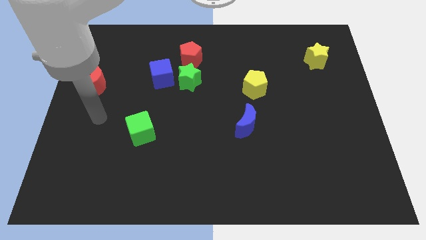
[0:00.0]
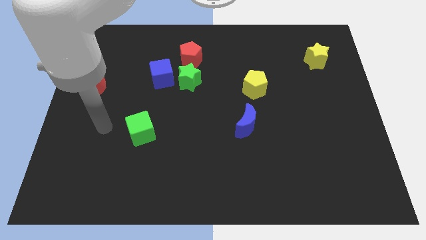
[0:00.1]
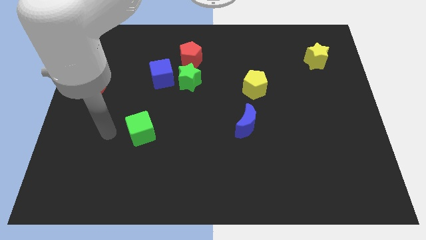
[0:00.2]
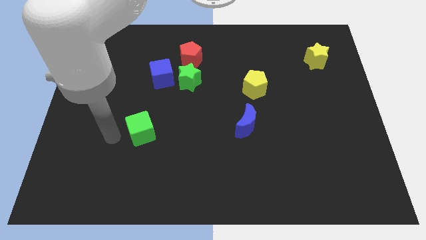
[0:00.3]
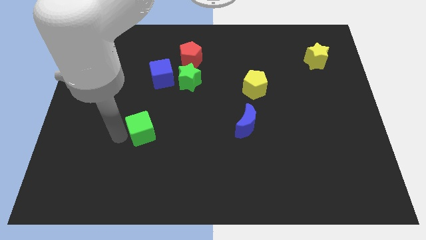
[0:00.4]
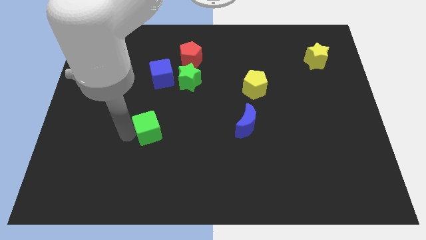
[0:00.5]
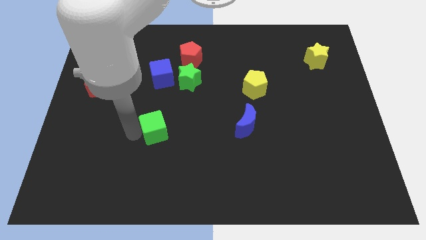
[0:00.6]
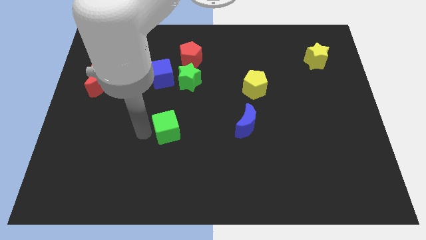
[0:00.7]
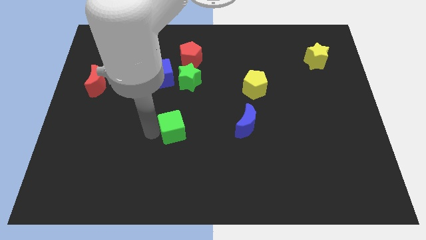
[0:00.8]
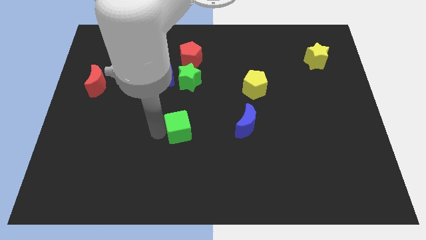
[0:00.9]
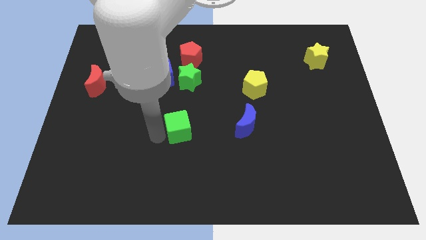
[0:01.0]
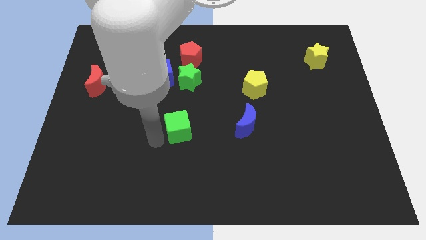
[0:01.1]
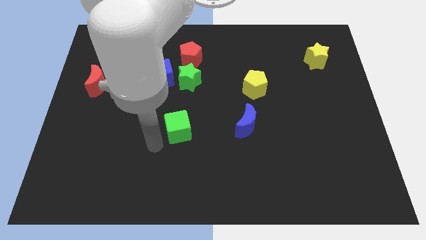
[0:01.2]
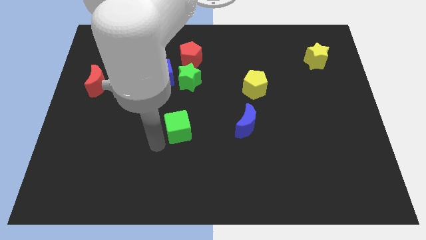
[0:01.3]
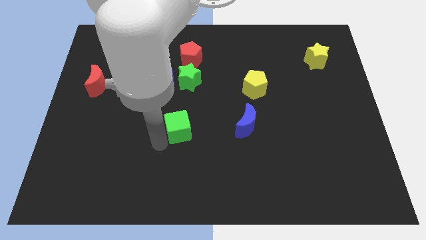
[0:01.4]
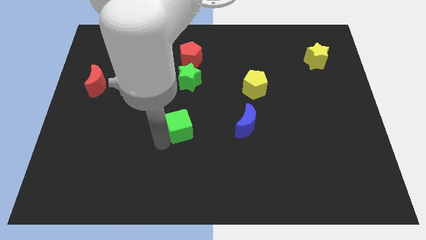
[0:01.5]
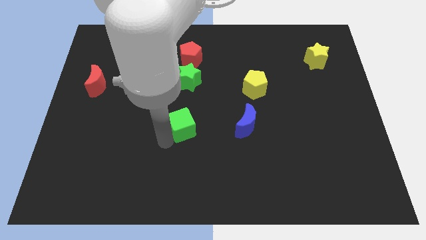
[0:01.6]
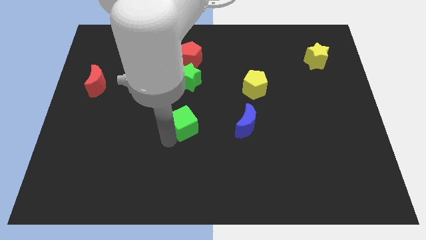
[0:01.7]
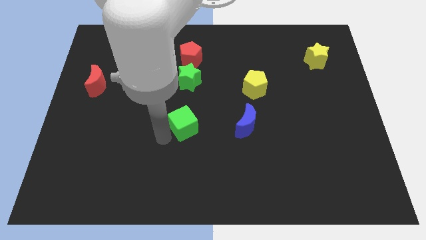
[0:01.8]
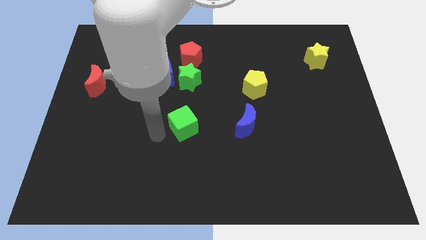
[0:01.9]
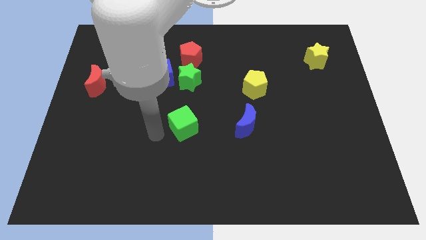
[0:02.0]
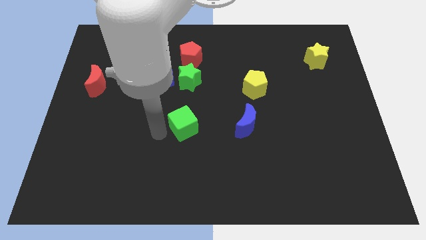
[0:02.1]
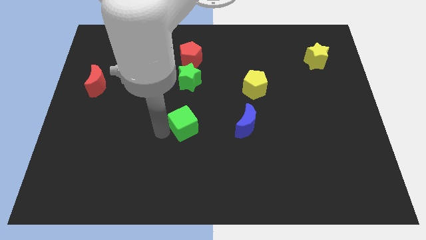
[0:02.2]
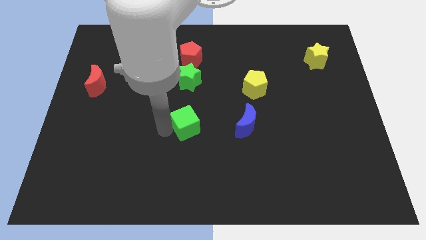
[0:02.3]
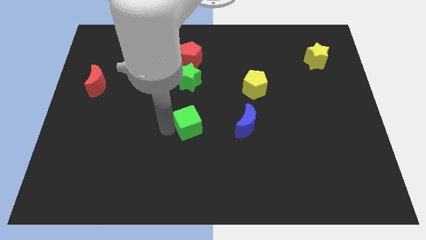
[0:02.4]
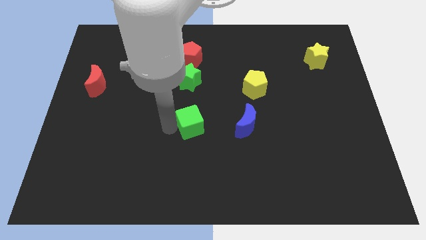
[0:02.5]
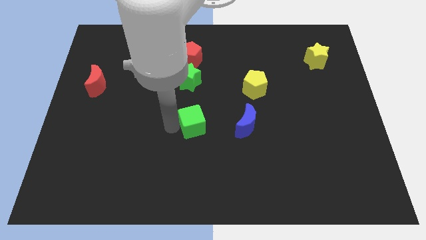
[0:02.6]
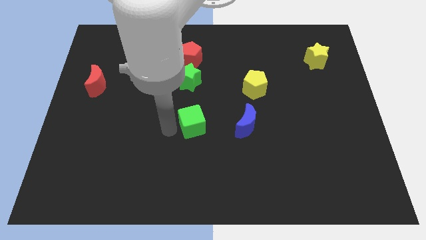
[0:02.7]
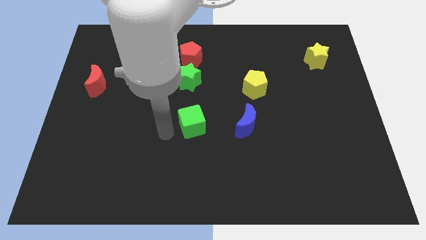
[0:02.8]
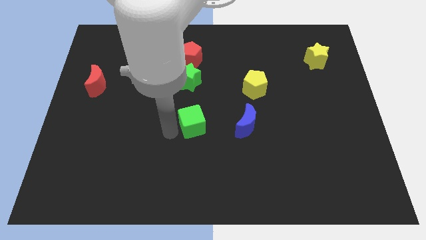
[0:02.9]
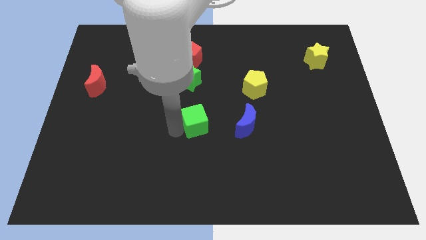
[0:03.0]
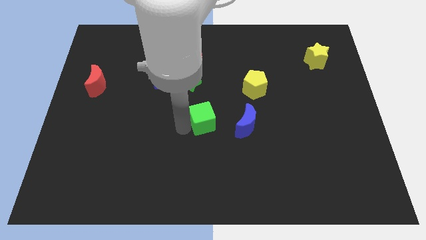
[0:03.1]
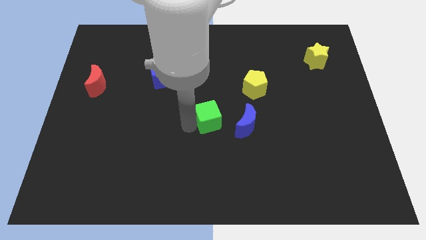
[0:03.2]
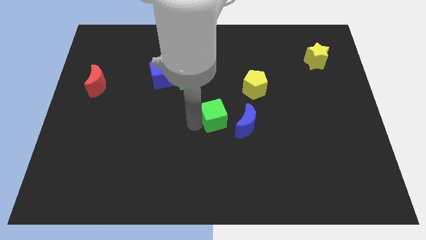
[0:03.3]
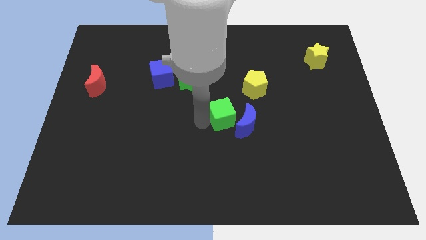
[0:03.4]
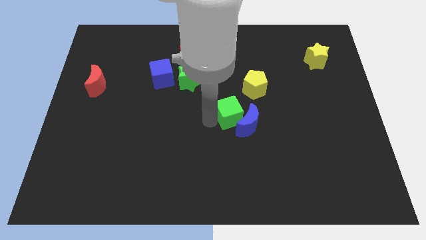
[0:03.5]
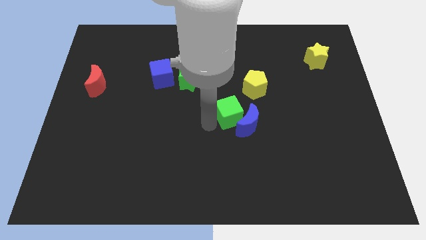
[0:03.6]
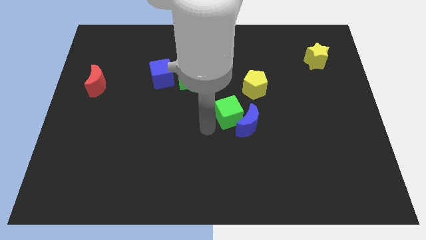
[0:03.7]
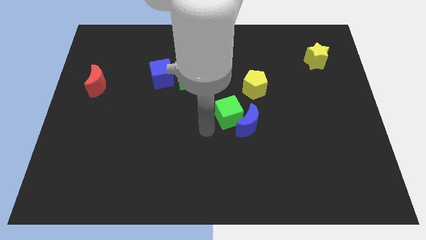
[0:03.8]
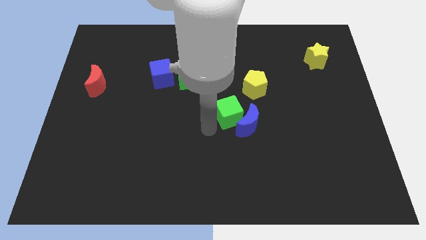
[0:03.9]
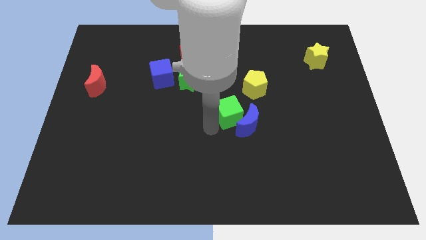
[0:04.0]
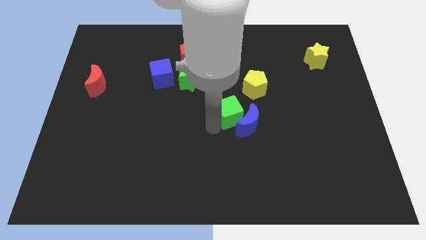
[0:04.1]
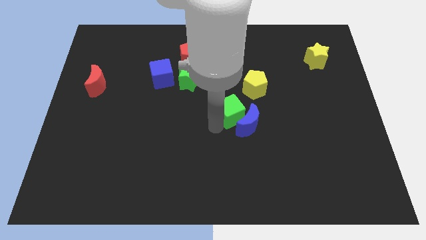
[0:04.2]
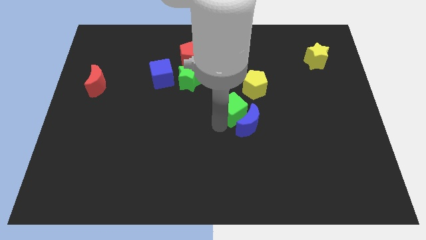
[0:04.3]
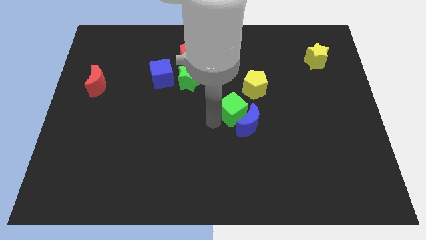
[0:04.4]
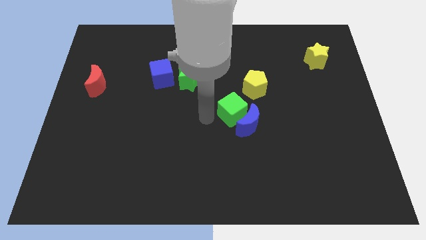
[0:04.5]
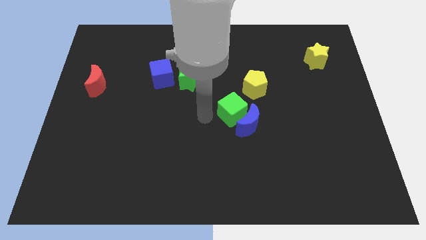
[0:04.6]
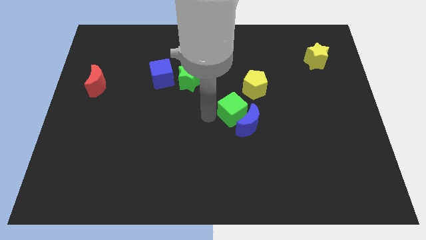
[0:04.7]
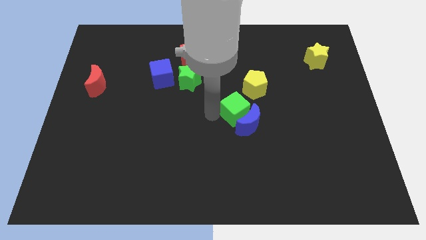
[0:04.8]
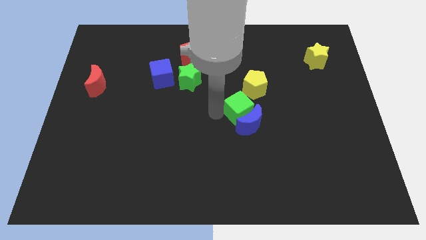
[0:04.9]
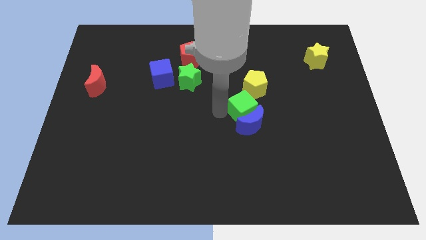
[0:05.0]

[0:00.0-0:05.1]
put the green cube to the top right of the blue moon

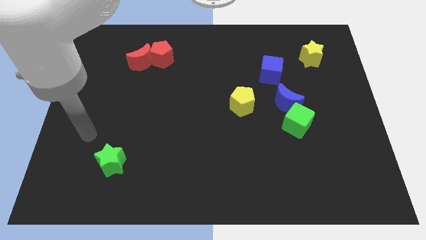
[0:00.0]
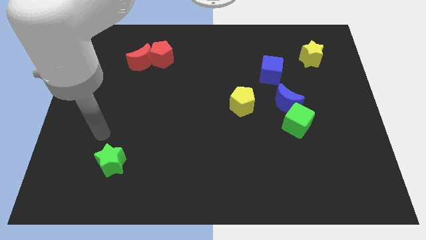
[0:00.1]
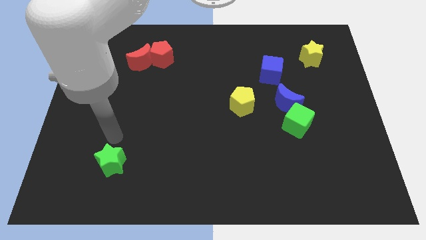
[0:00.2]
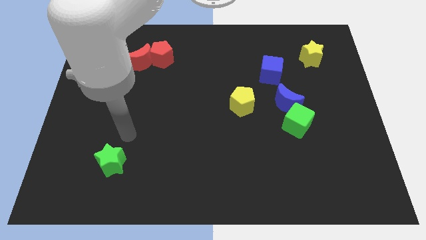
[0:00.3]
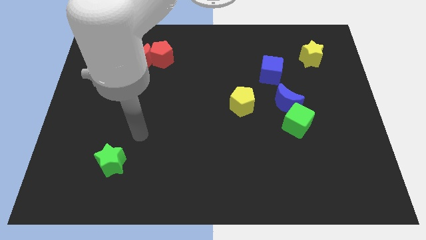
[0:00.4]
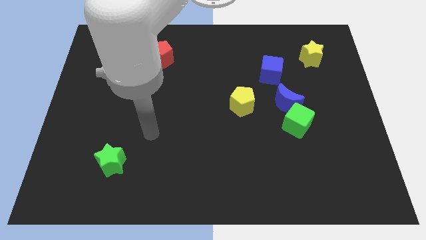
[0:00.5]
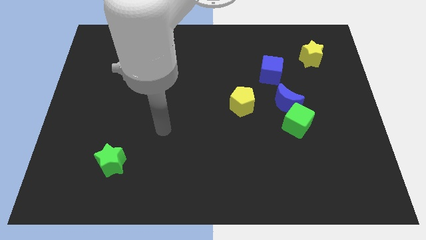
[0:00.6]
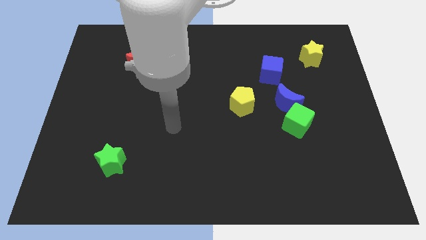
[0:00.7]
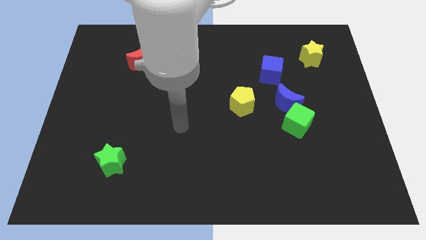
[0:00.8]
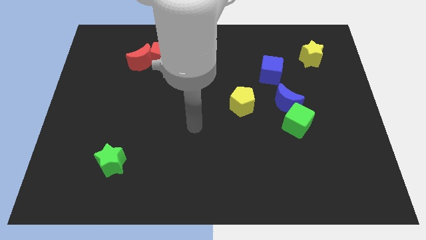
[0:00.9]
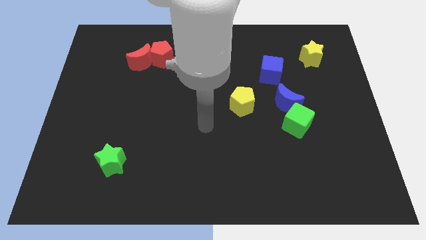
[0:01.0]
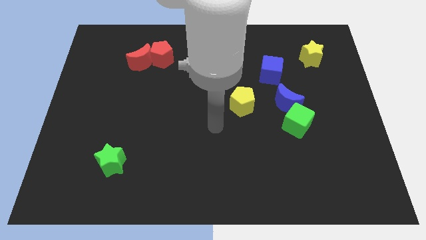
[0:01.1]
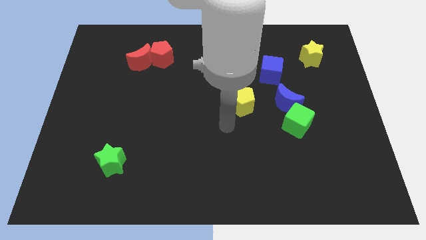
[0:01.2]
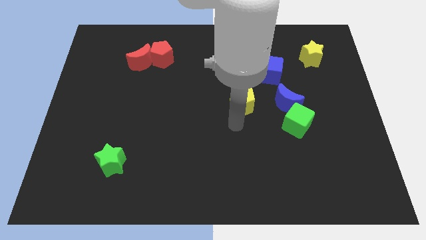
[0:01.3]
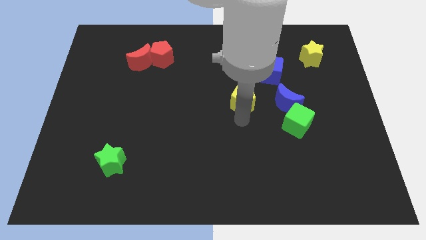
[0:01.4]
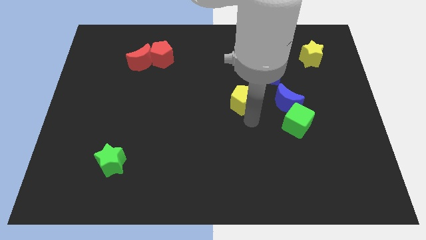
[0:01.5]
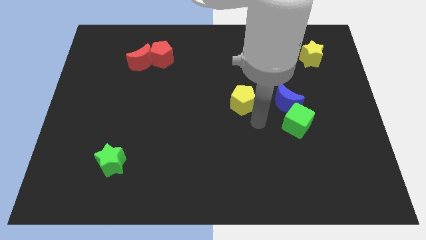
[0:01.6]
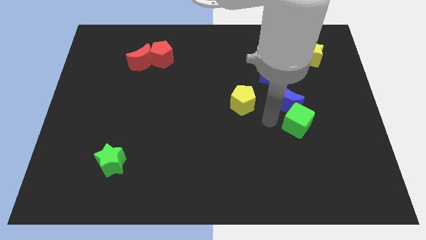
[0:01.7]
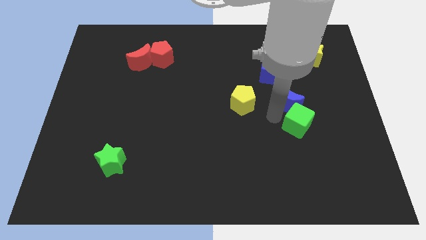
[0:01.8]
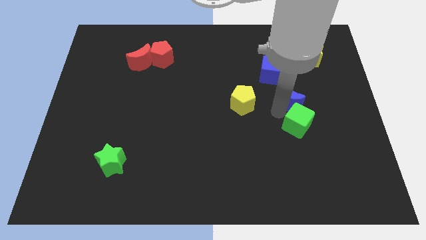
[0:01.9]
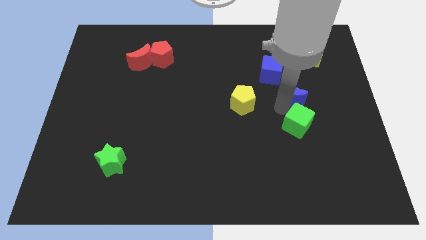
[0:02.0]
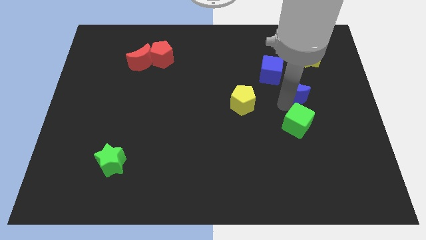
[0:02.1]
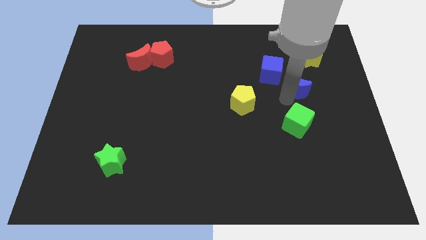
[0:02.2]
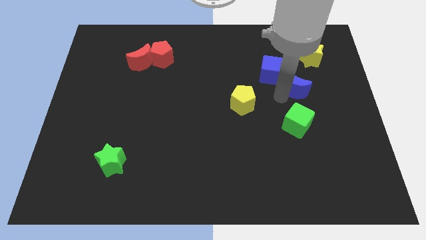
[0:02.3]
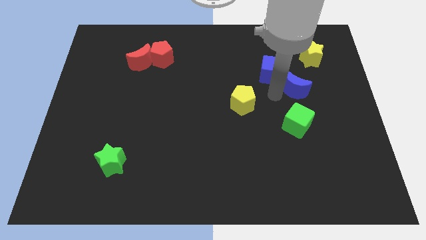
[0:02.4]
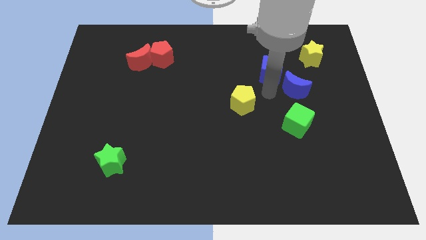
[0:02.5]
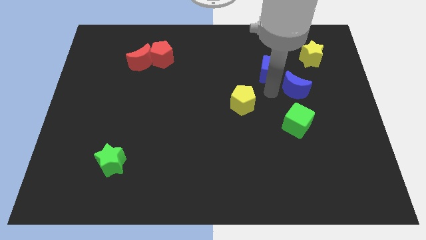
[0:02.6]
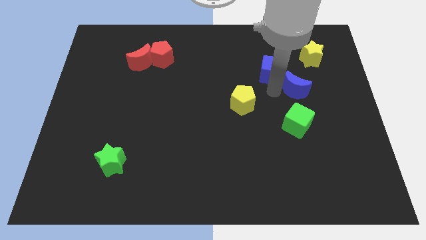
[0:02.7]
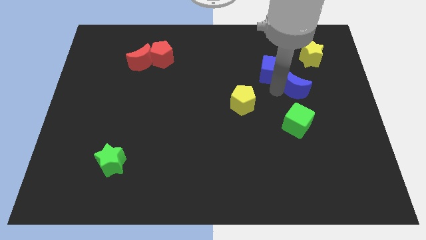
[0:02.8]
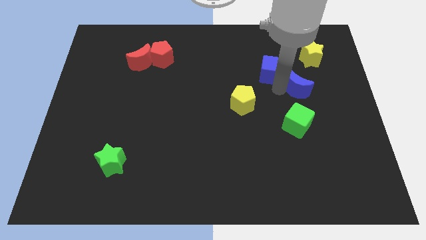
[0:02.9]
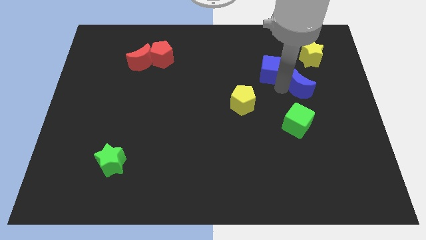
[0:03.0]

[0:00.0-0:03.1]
move the blue moon to the bottom of the yellow star
